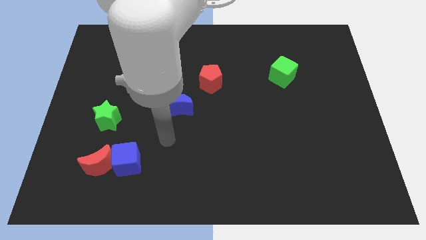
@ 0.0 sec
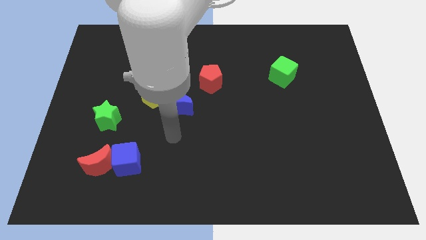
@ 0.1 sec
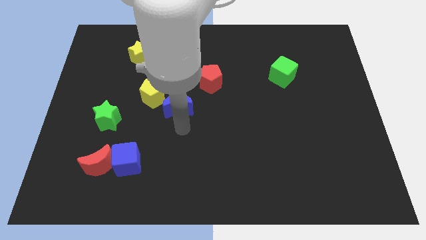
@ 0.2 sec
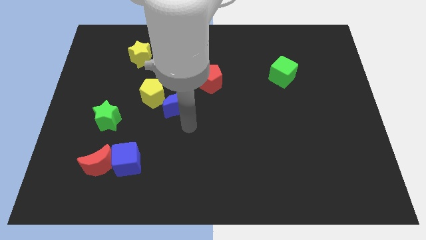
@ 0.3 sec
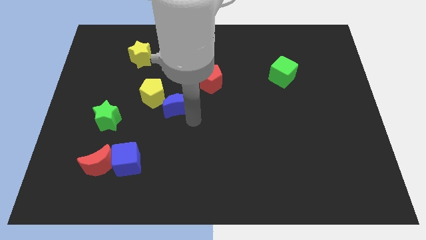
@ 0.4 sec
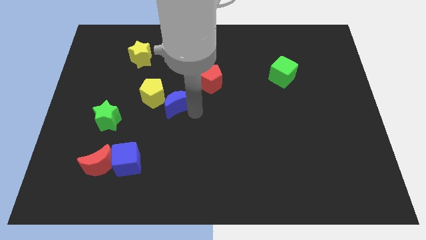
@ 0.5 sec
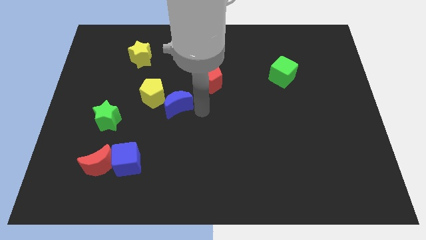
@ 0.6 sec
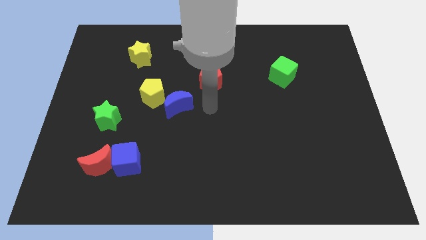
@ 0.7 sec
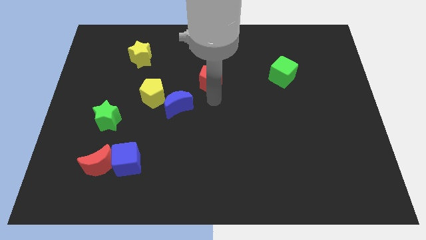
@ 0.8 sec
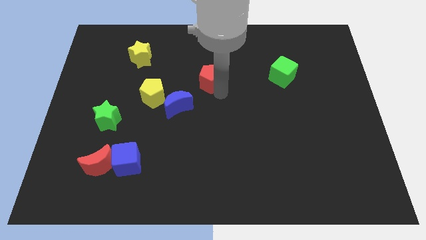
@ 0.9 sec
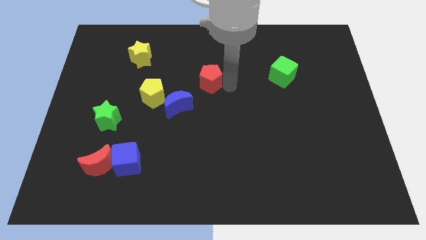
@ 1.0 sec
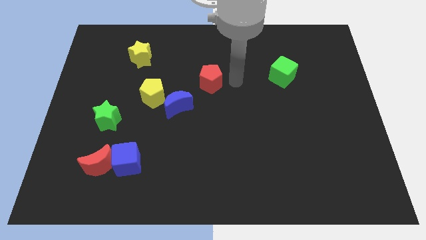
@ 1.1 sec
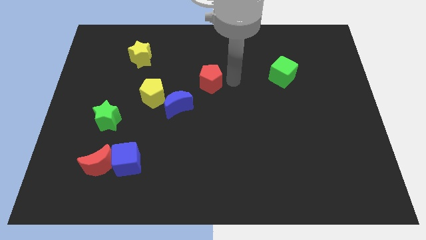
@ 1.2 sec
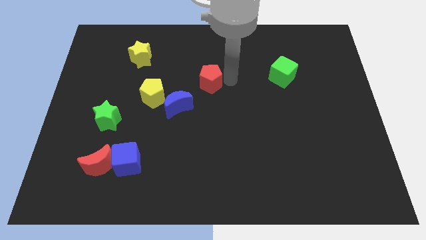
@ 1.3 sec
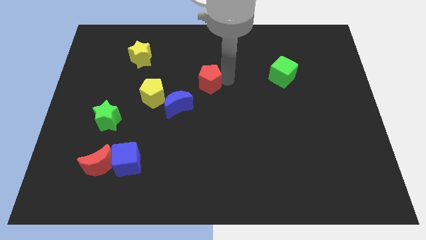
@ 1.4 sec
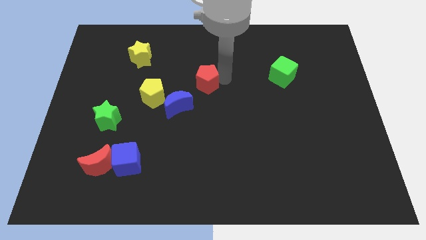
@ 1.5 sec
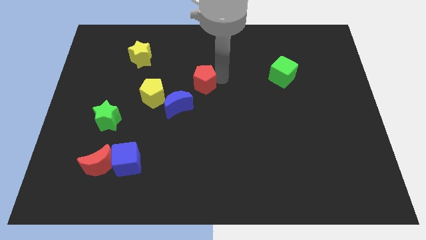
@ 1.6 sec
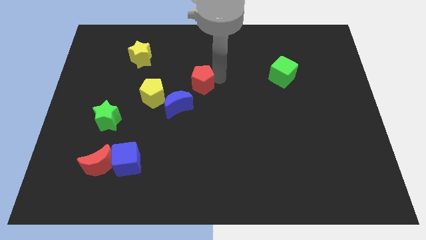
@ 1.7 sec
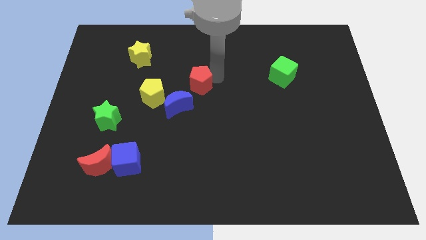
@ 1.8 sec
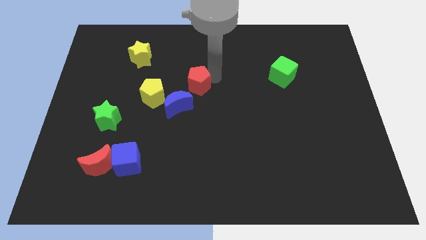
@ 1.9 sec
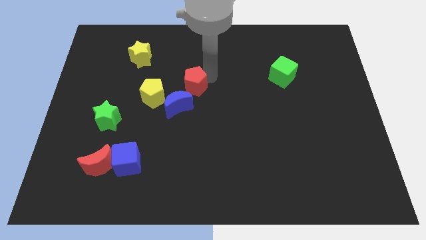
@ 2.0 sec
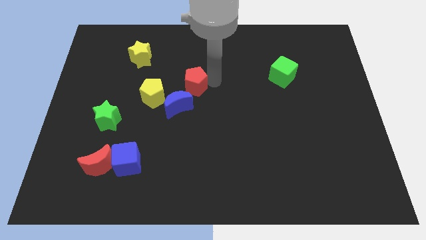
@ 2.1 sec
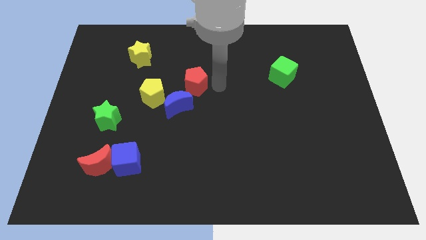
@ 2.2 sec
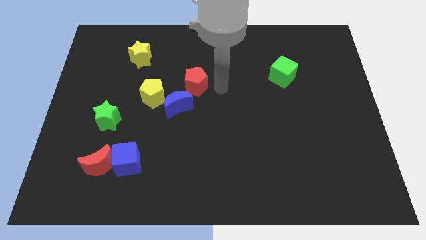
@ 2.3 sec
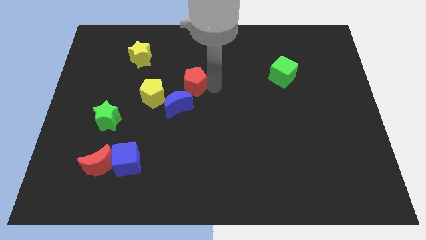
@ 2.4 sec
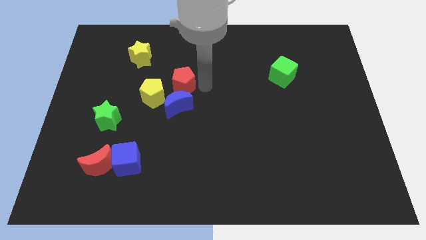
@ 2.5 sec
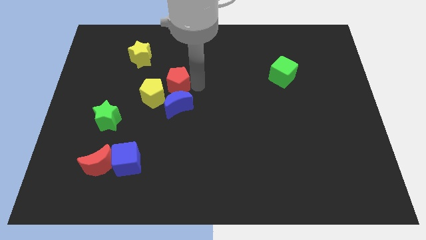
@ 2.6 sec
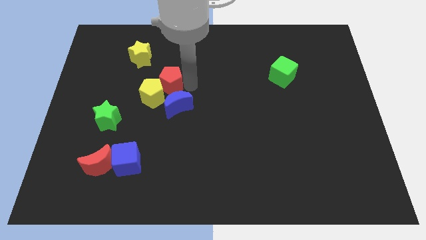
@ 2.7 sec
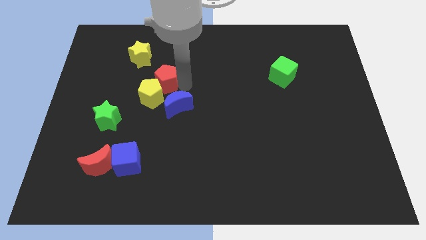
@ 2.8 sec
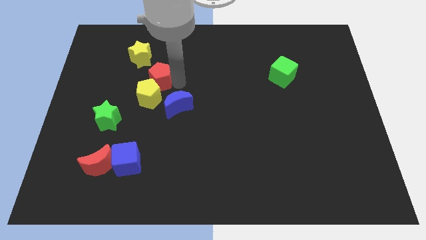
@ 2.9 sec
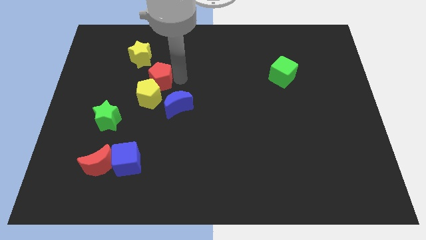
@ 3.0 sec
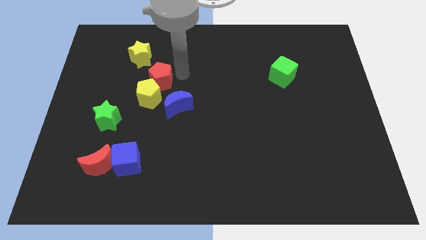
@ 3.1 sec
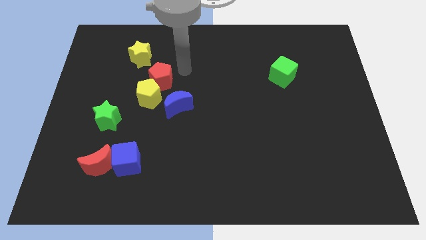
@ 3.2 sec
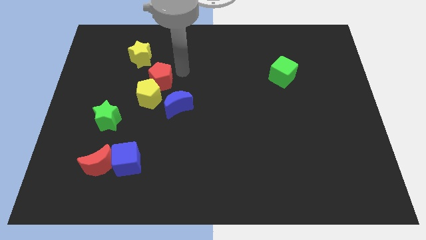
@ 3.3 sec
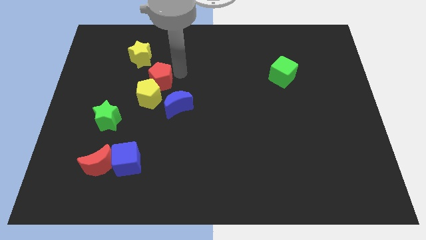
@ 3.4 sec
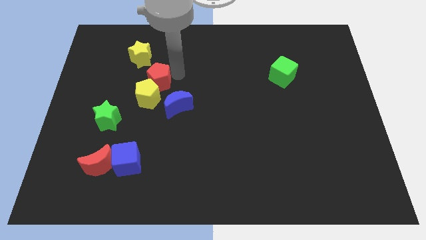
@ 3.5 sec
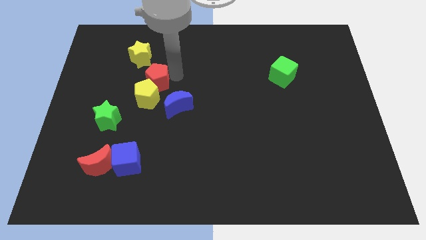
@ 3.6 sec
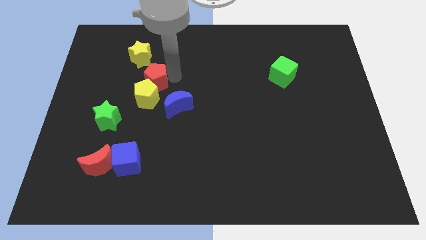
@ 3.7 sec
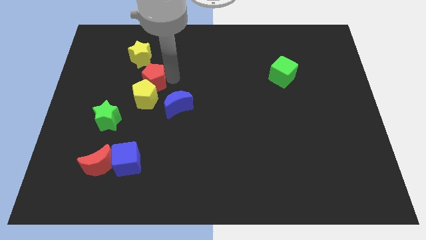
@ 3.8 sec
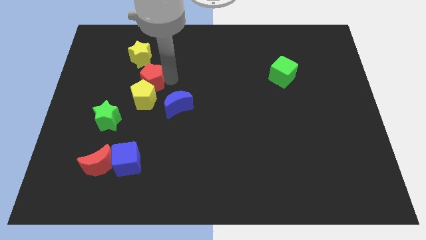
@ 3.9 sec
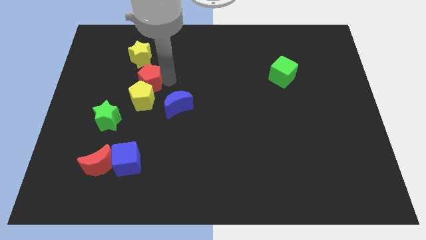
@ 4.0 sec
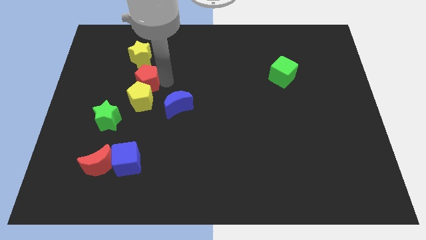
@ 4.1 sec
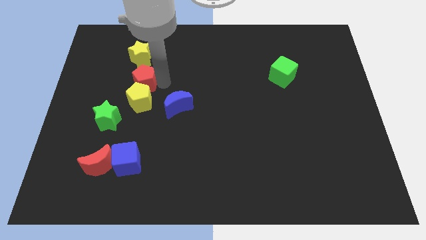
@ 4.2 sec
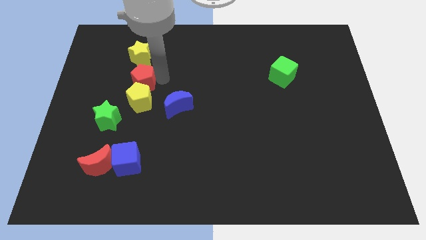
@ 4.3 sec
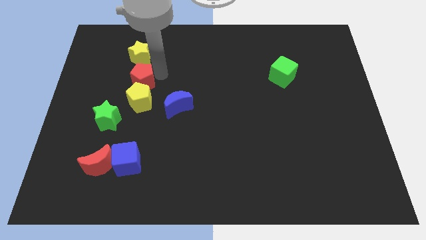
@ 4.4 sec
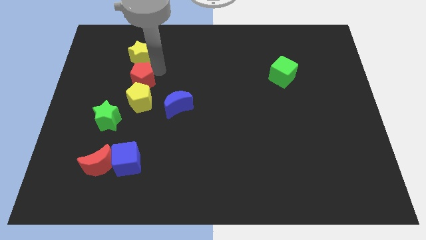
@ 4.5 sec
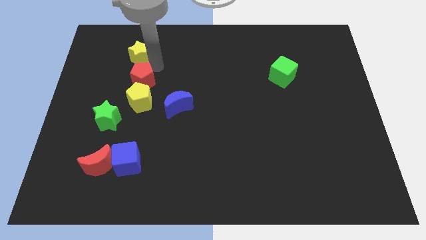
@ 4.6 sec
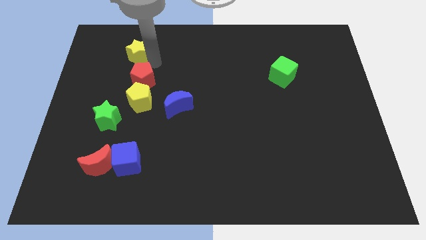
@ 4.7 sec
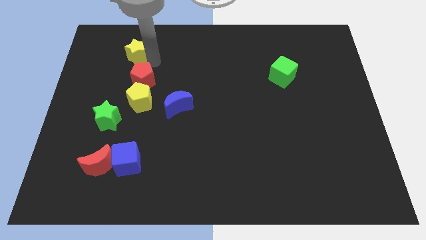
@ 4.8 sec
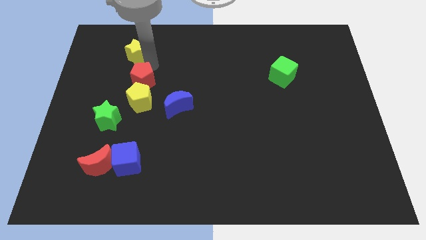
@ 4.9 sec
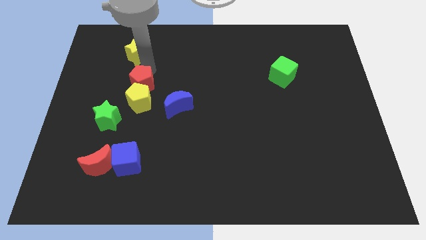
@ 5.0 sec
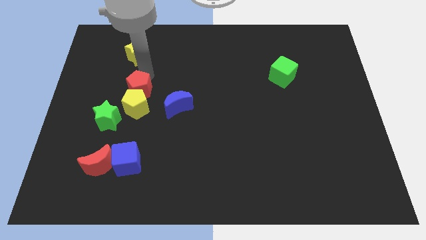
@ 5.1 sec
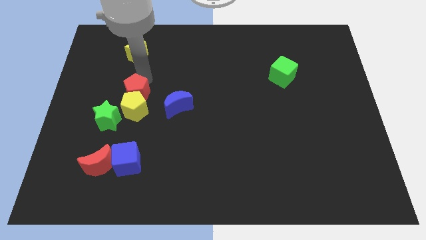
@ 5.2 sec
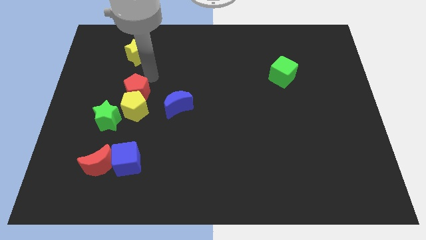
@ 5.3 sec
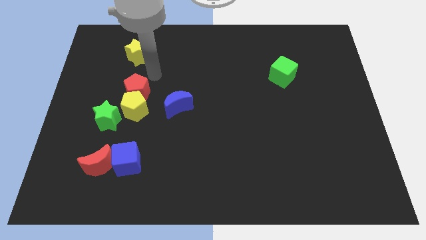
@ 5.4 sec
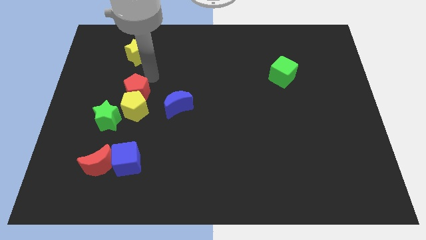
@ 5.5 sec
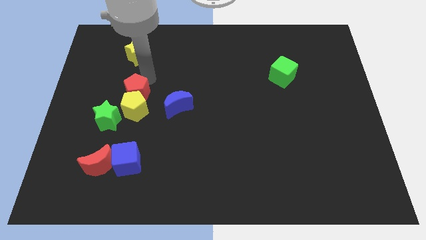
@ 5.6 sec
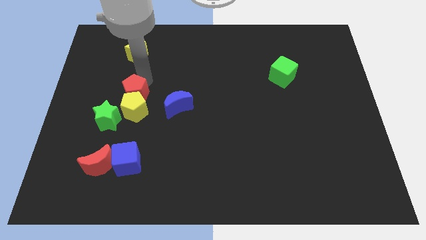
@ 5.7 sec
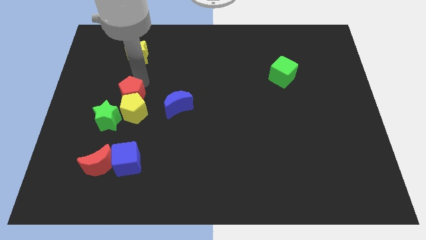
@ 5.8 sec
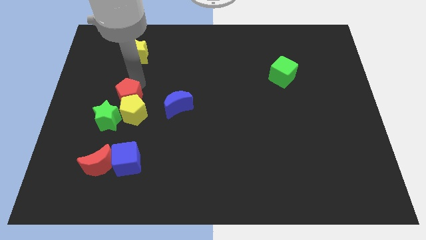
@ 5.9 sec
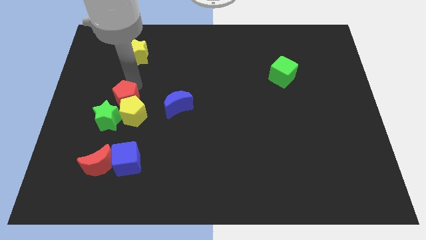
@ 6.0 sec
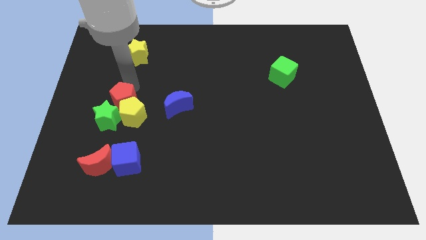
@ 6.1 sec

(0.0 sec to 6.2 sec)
slide the red pentagon close to the green star

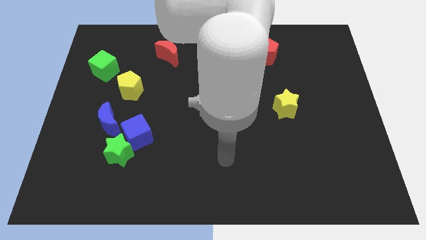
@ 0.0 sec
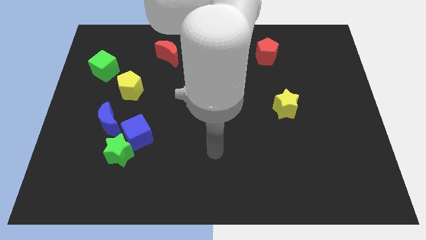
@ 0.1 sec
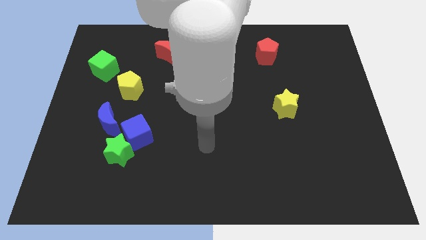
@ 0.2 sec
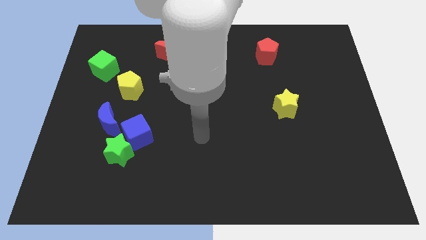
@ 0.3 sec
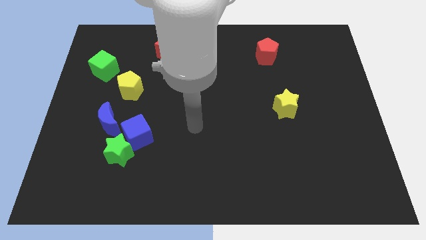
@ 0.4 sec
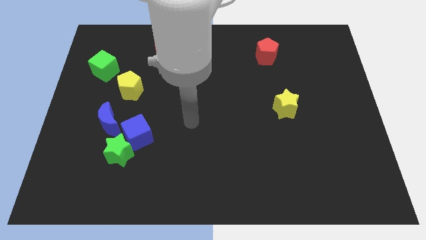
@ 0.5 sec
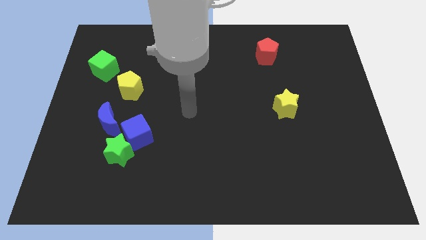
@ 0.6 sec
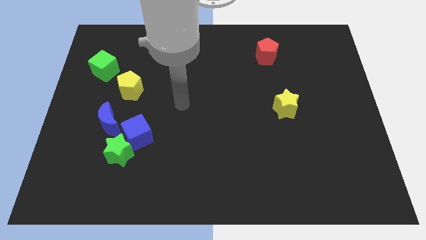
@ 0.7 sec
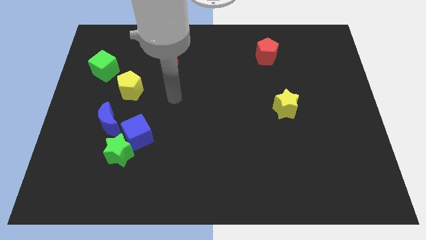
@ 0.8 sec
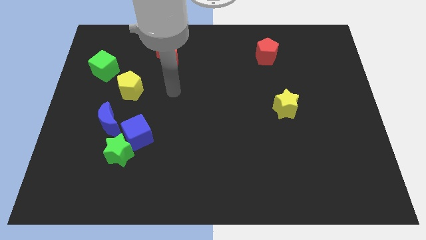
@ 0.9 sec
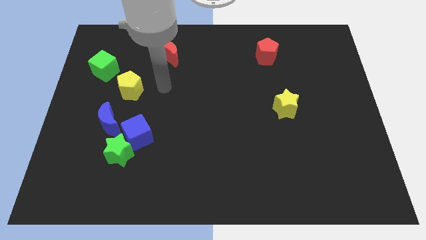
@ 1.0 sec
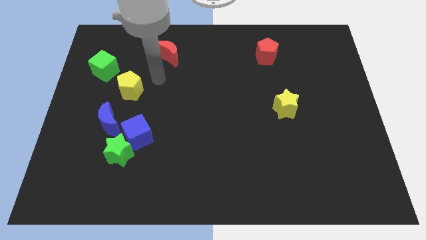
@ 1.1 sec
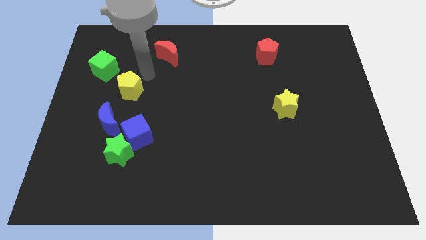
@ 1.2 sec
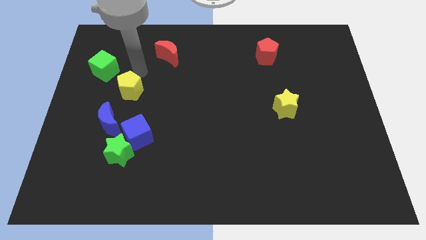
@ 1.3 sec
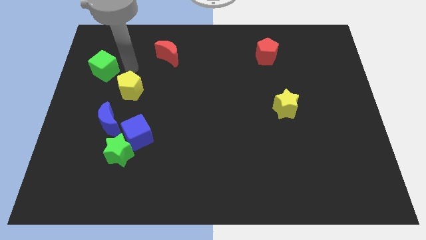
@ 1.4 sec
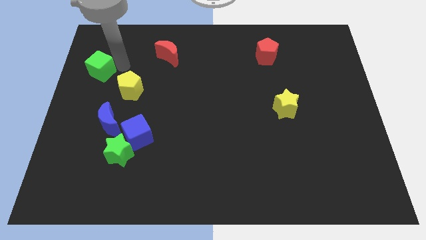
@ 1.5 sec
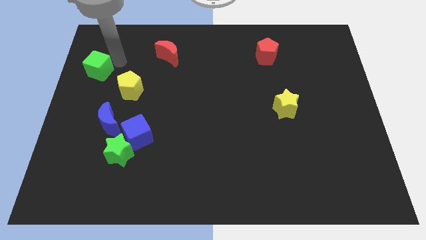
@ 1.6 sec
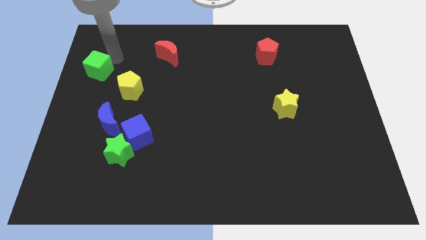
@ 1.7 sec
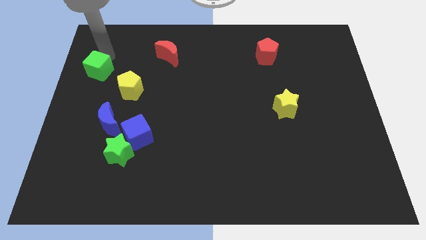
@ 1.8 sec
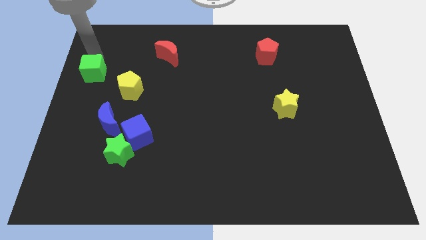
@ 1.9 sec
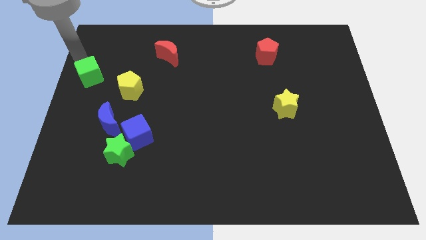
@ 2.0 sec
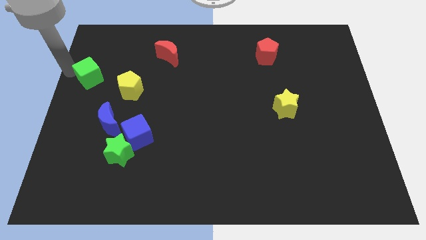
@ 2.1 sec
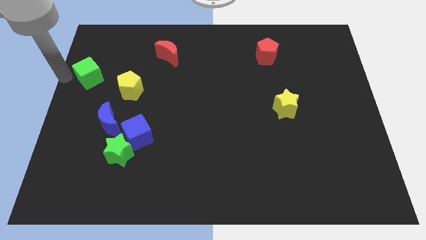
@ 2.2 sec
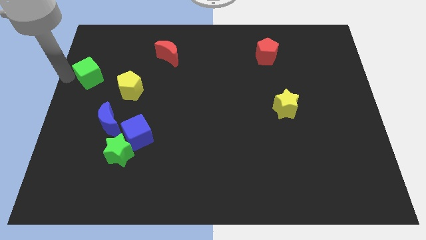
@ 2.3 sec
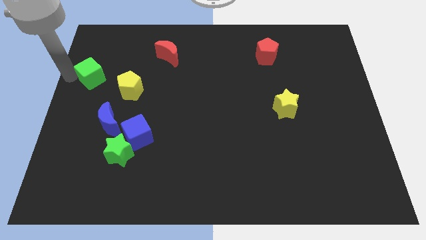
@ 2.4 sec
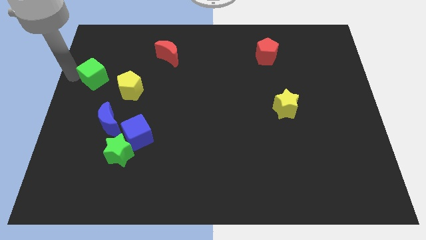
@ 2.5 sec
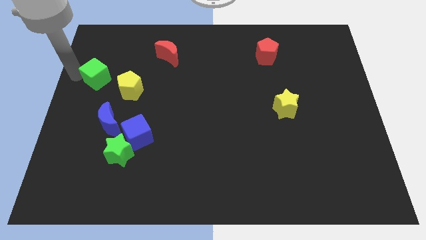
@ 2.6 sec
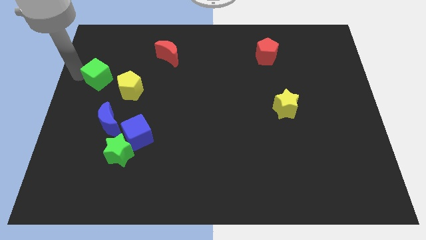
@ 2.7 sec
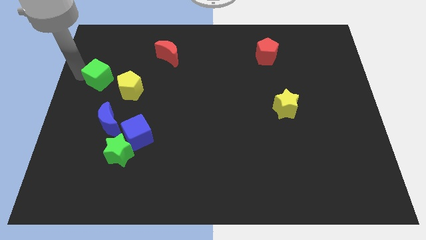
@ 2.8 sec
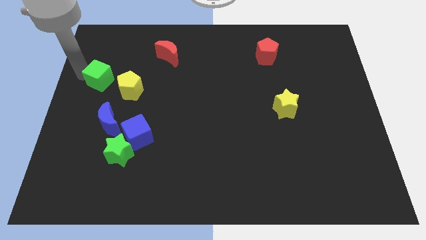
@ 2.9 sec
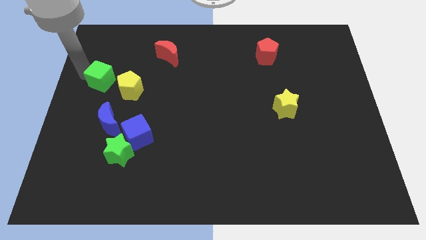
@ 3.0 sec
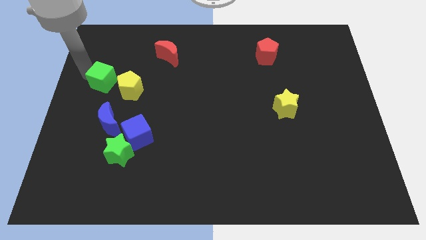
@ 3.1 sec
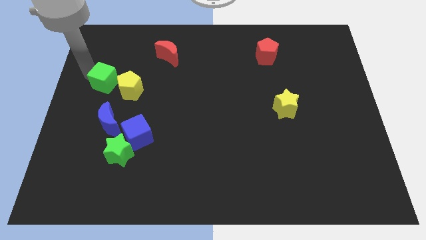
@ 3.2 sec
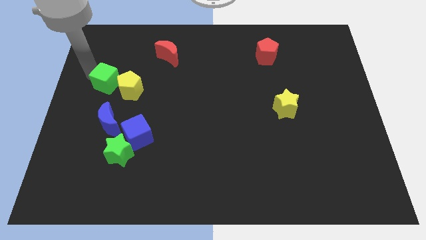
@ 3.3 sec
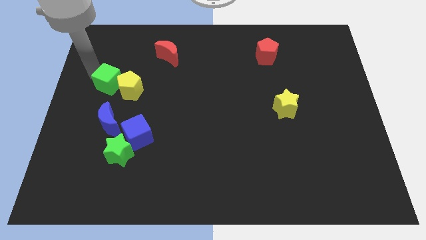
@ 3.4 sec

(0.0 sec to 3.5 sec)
slide the green cube to the yellow pentagon
